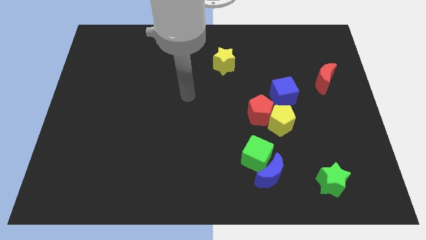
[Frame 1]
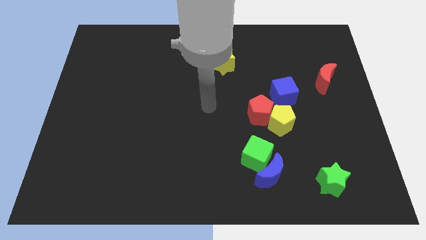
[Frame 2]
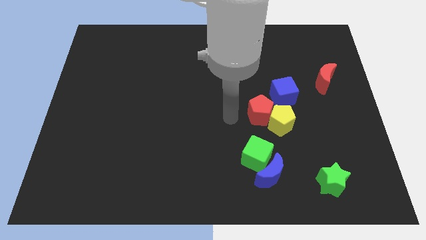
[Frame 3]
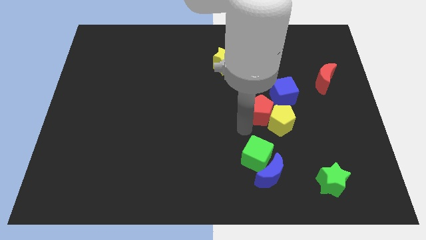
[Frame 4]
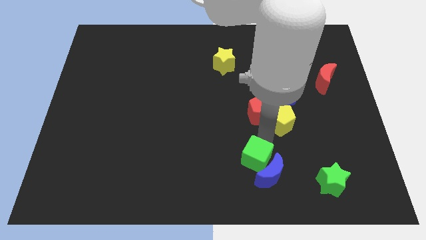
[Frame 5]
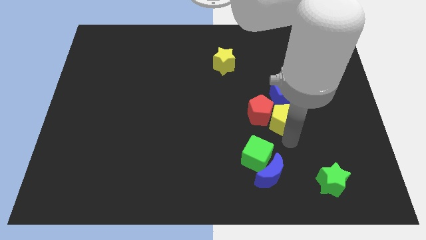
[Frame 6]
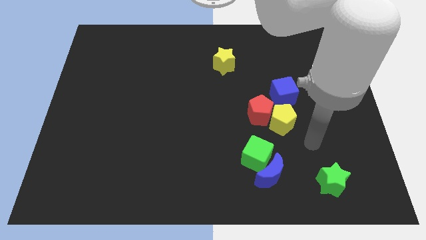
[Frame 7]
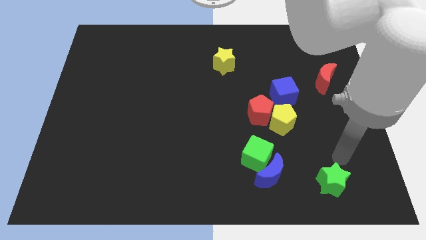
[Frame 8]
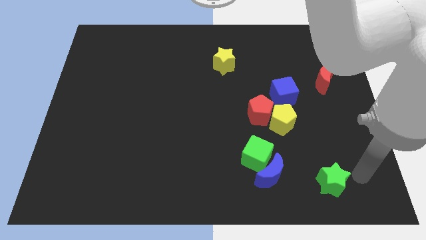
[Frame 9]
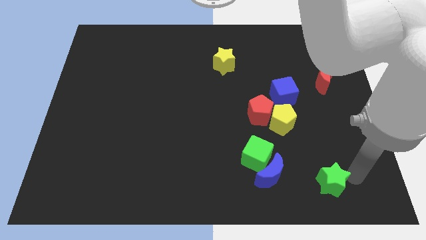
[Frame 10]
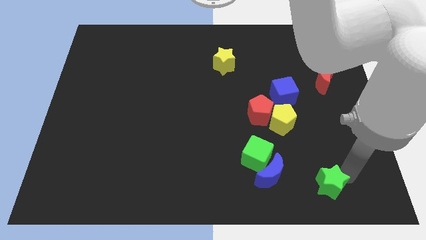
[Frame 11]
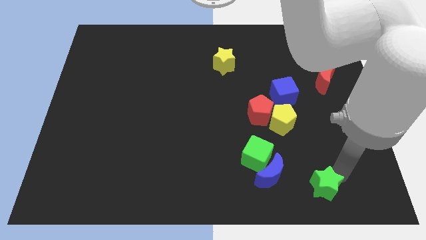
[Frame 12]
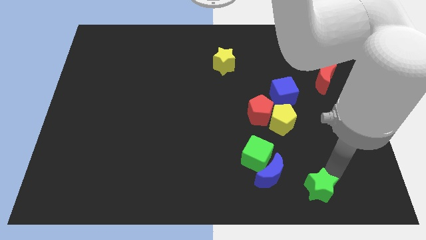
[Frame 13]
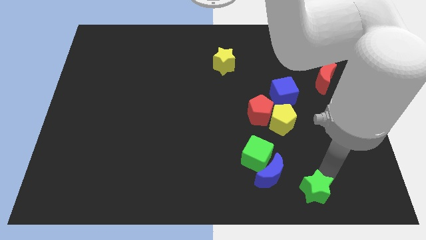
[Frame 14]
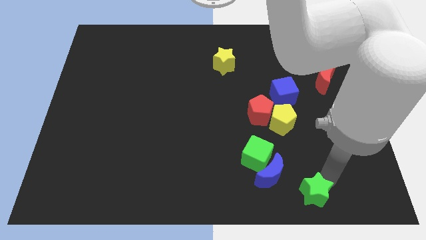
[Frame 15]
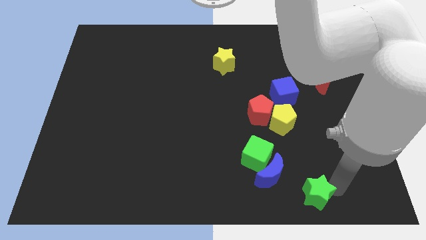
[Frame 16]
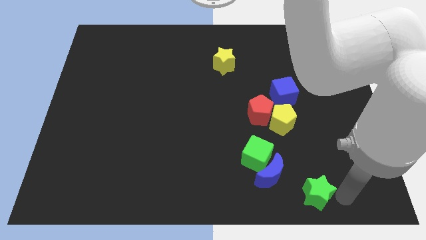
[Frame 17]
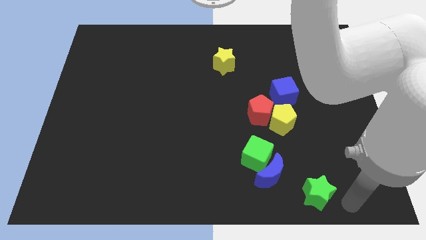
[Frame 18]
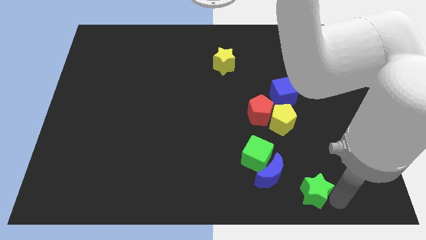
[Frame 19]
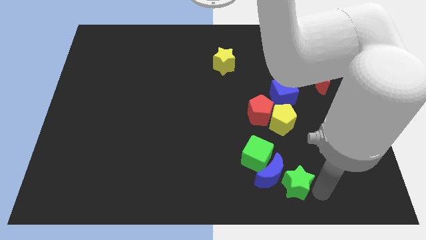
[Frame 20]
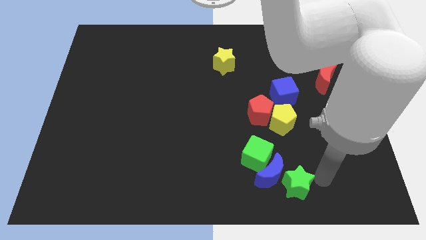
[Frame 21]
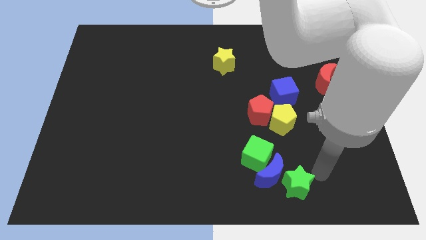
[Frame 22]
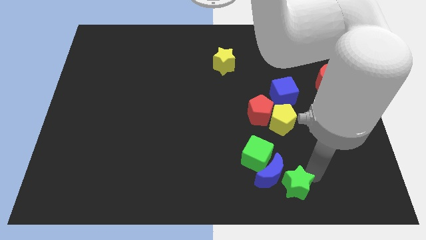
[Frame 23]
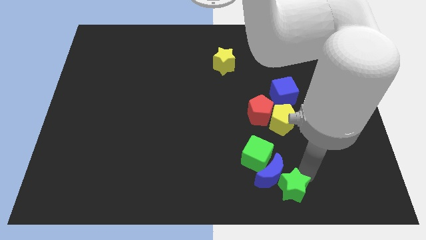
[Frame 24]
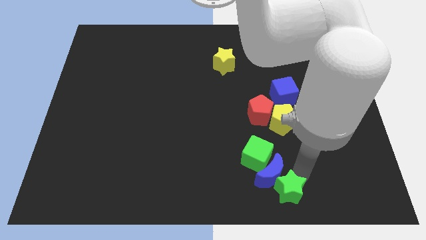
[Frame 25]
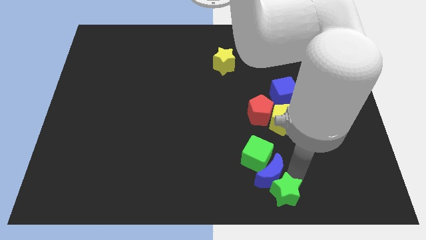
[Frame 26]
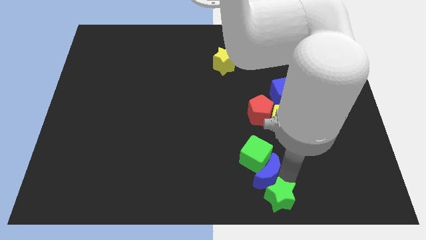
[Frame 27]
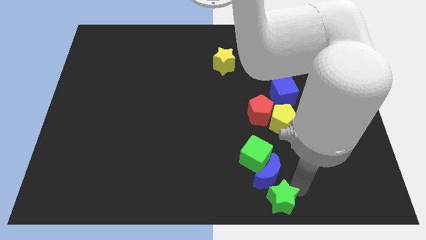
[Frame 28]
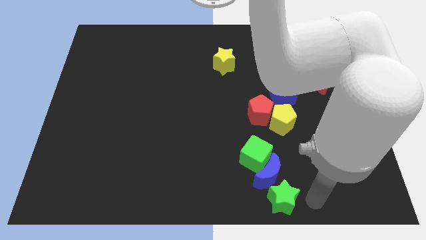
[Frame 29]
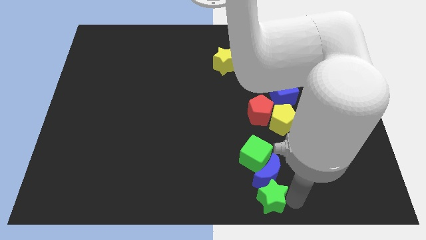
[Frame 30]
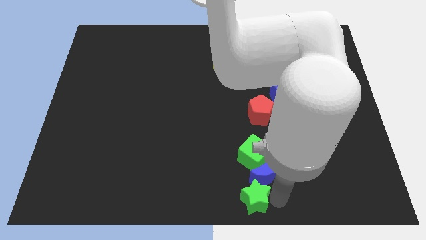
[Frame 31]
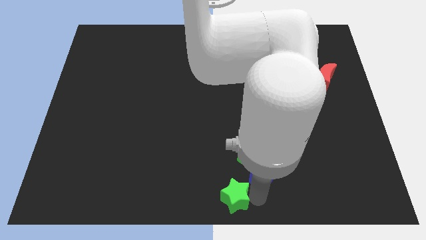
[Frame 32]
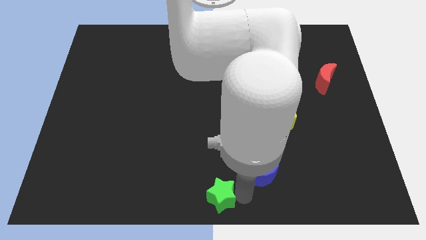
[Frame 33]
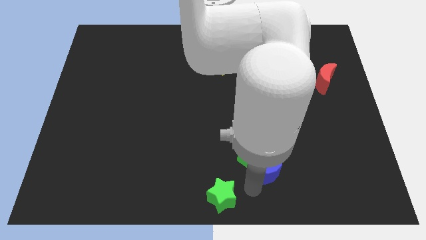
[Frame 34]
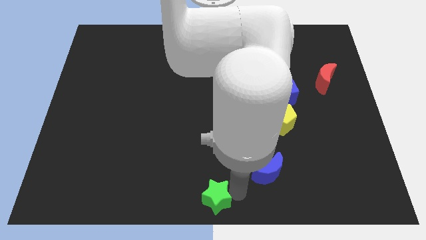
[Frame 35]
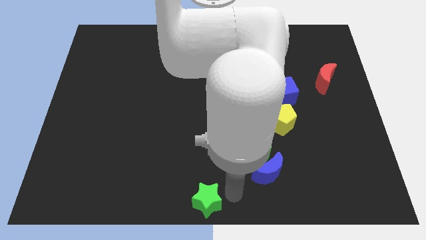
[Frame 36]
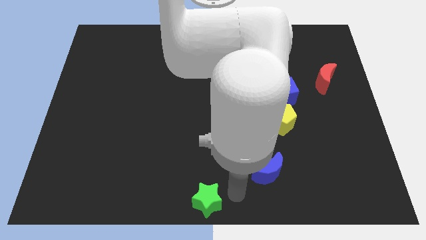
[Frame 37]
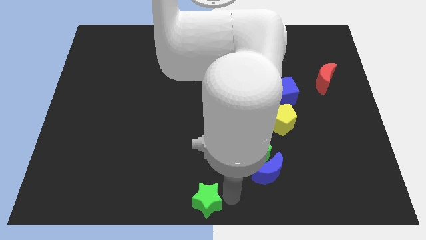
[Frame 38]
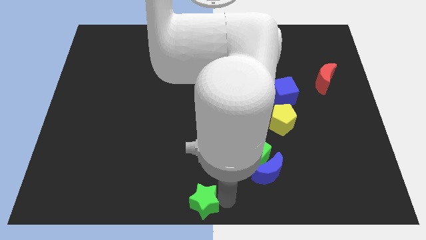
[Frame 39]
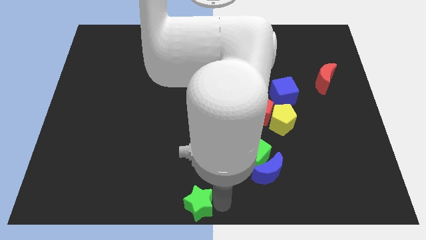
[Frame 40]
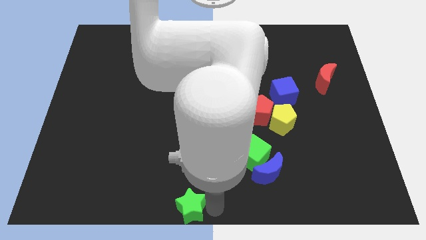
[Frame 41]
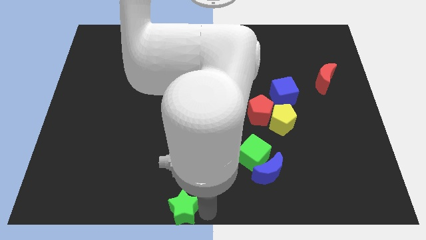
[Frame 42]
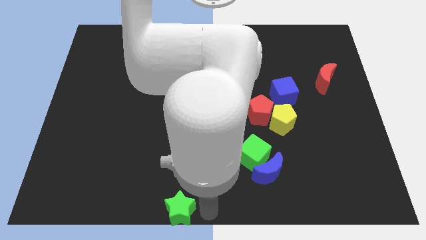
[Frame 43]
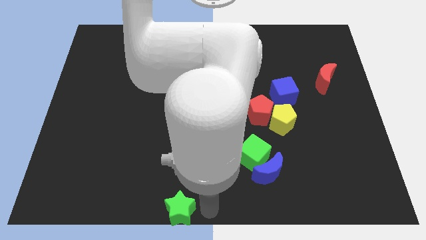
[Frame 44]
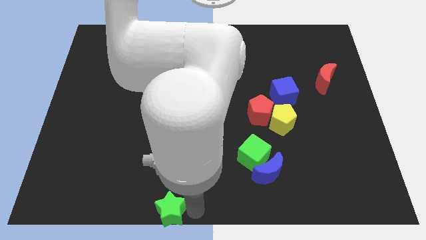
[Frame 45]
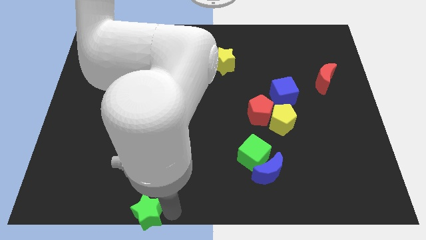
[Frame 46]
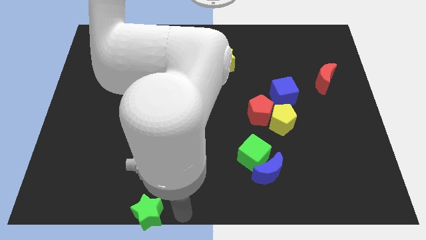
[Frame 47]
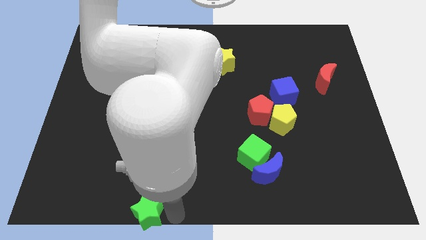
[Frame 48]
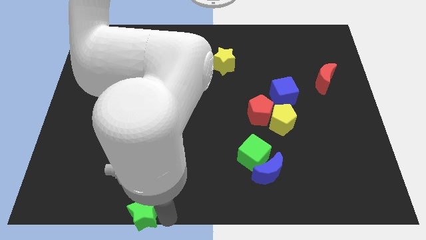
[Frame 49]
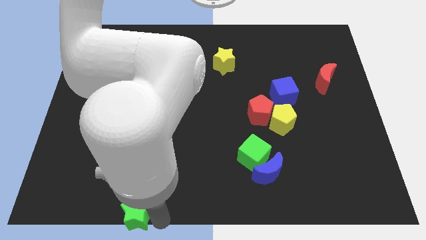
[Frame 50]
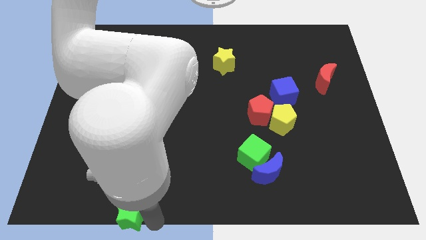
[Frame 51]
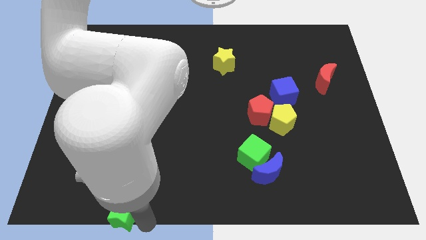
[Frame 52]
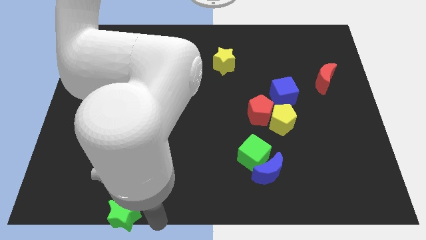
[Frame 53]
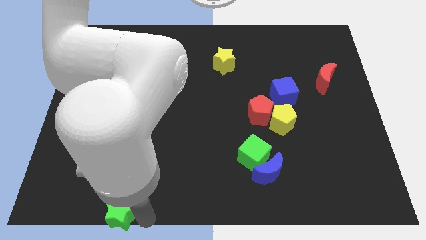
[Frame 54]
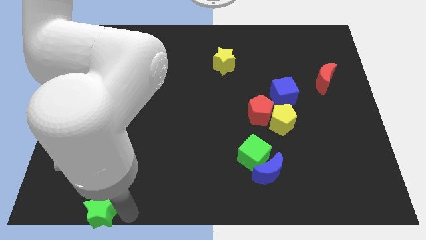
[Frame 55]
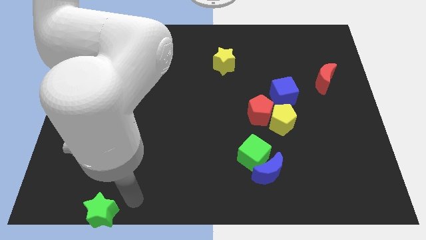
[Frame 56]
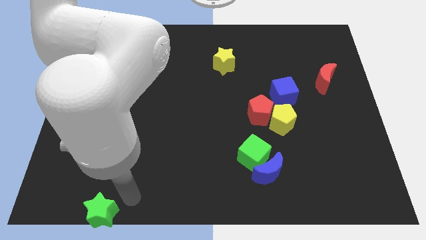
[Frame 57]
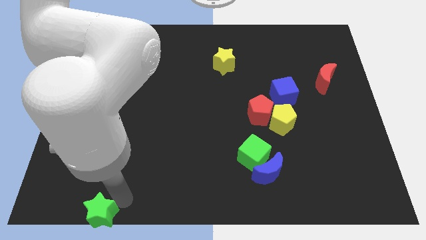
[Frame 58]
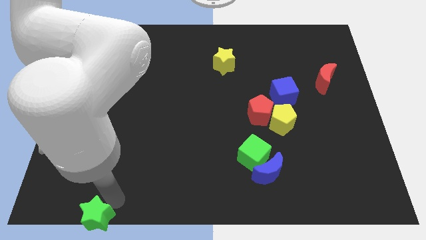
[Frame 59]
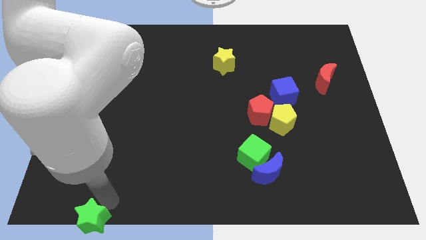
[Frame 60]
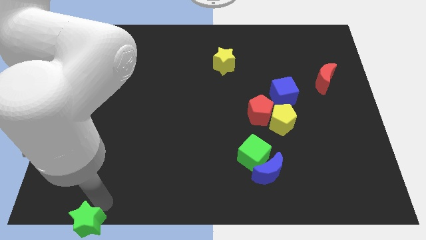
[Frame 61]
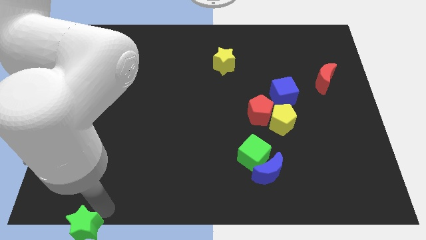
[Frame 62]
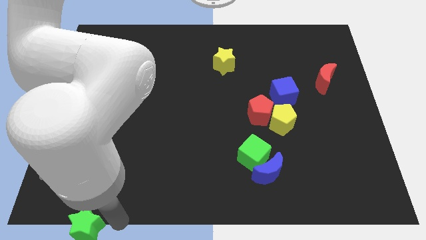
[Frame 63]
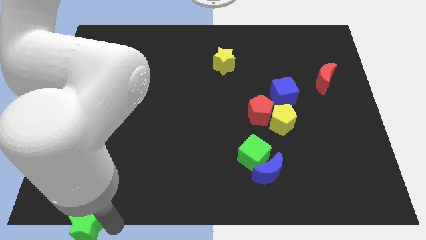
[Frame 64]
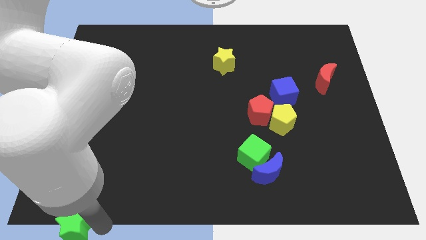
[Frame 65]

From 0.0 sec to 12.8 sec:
slide the green star to the bottom left
